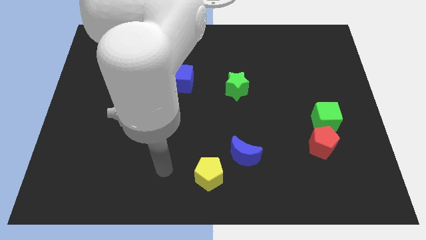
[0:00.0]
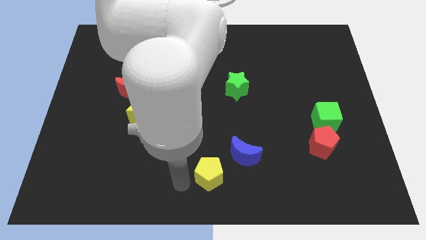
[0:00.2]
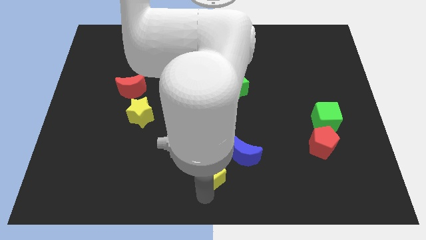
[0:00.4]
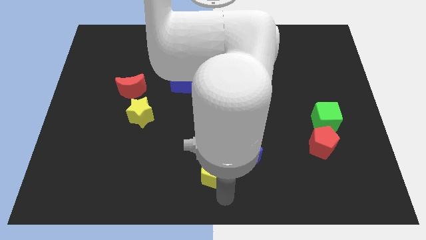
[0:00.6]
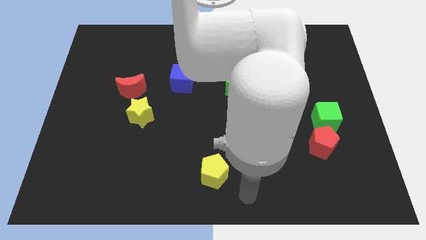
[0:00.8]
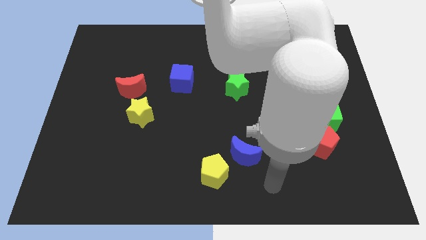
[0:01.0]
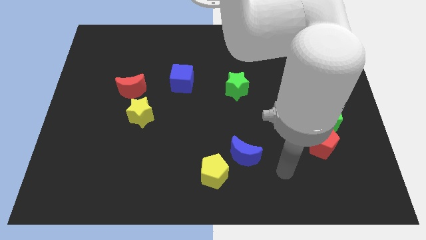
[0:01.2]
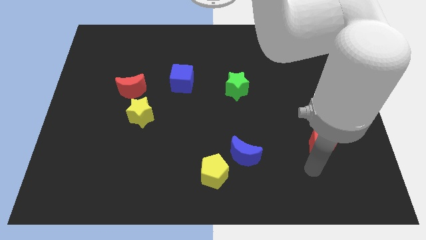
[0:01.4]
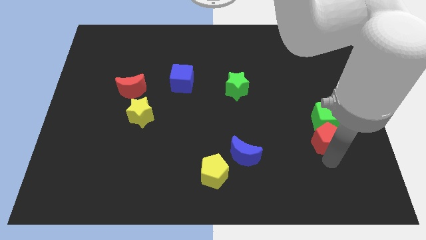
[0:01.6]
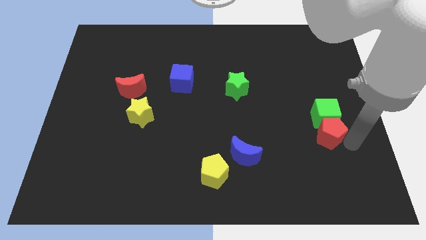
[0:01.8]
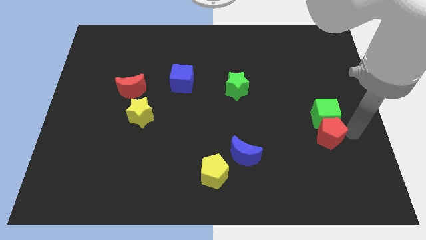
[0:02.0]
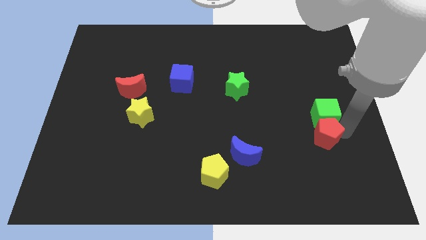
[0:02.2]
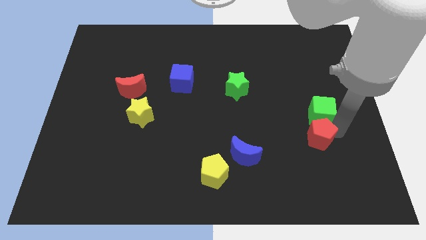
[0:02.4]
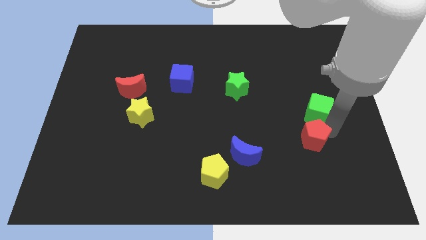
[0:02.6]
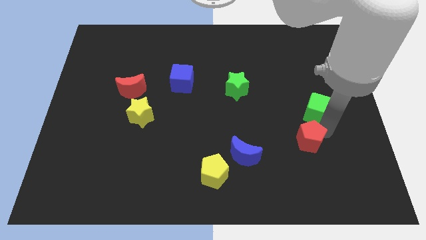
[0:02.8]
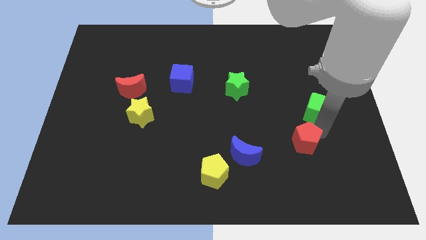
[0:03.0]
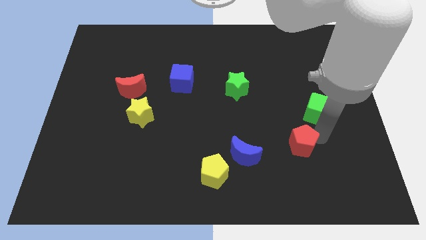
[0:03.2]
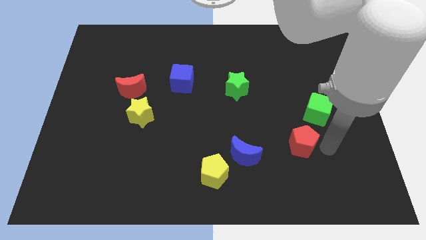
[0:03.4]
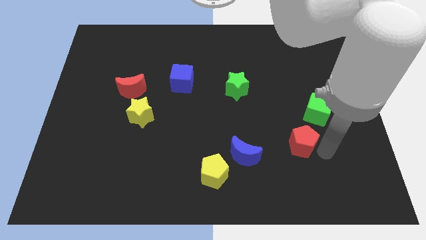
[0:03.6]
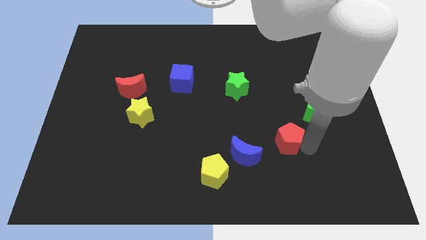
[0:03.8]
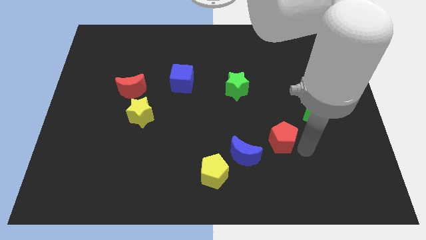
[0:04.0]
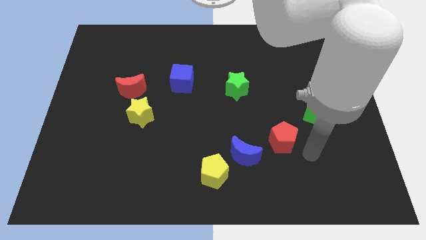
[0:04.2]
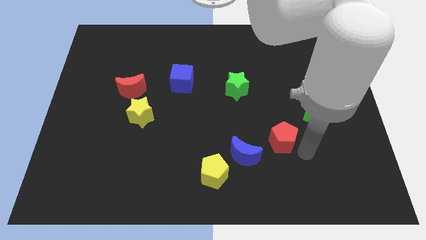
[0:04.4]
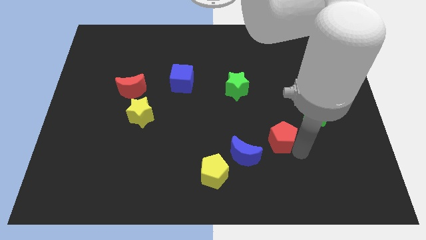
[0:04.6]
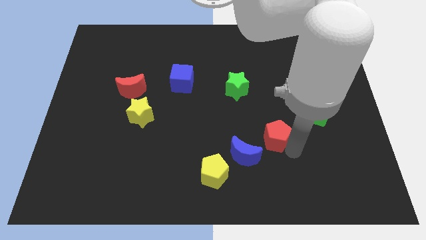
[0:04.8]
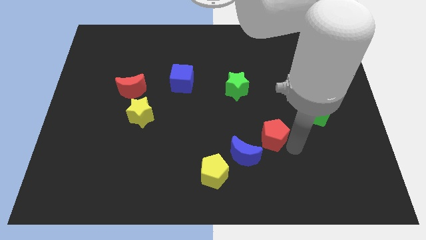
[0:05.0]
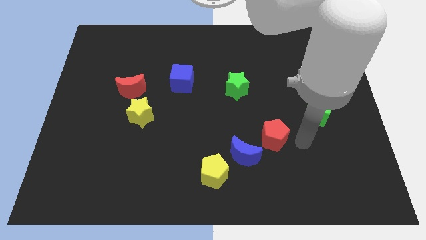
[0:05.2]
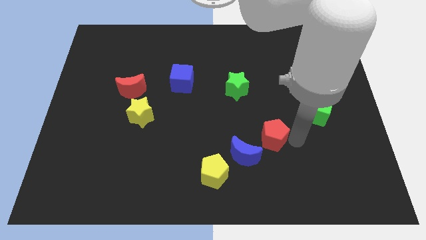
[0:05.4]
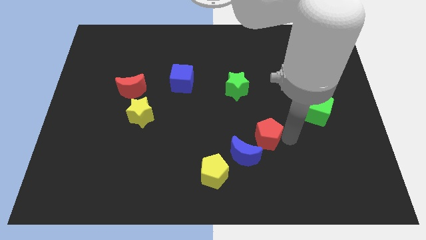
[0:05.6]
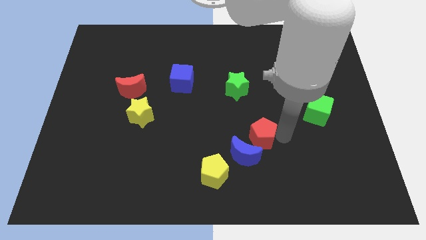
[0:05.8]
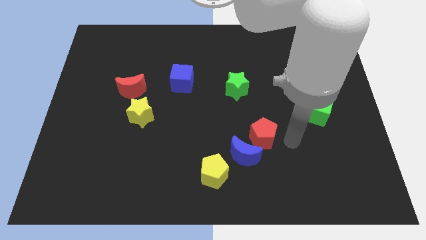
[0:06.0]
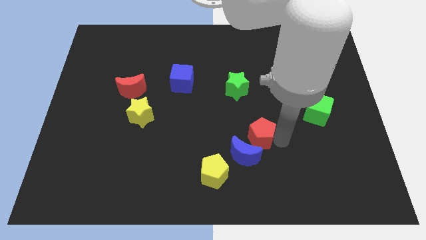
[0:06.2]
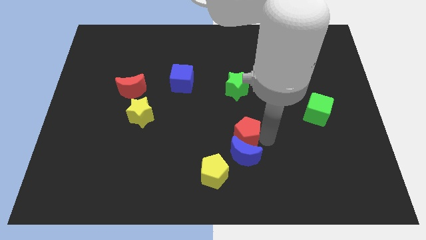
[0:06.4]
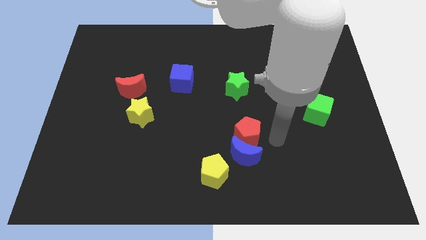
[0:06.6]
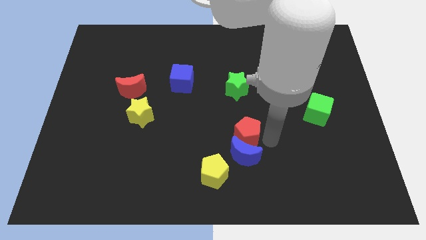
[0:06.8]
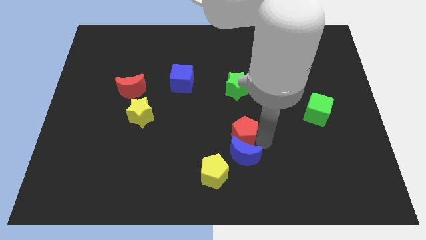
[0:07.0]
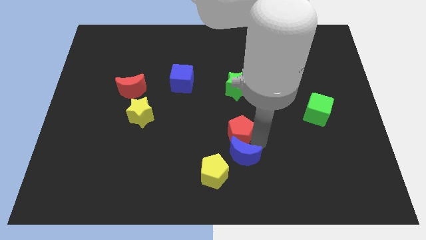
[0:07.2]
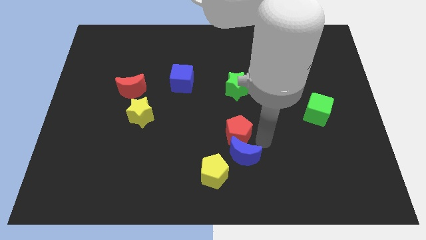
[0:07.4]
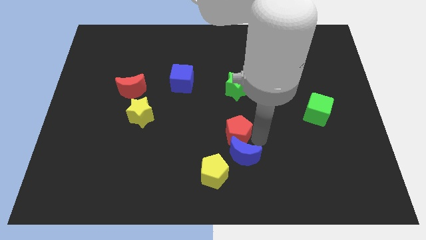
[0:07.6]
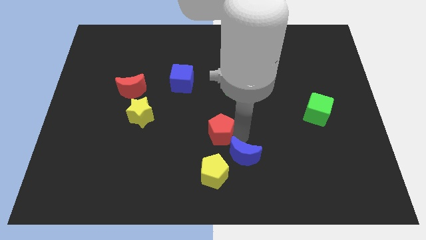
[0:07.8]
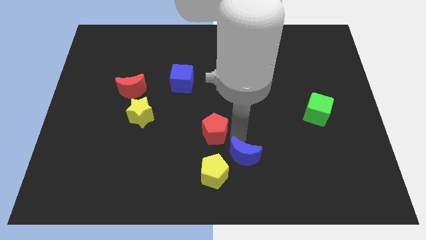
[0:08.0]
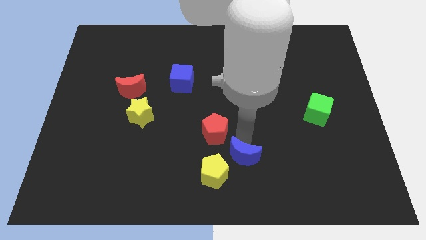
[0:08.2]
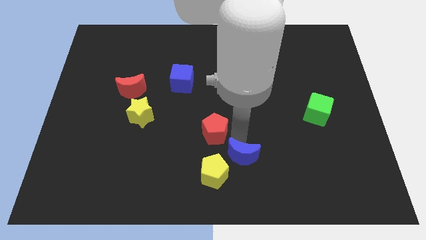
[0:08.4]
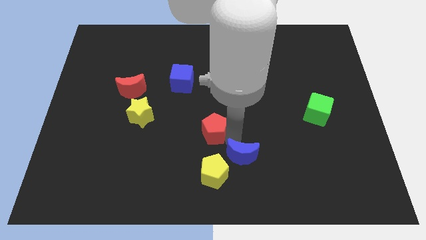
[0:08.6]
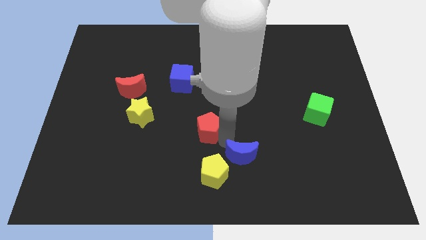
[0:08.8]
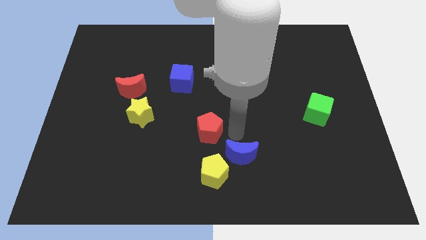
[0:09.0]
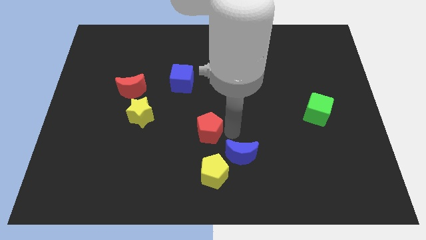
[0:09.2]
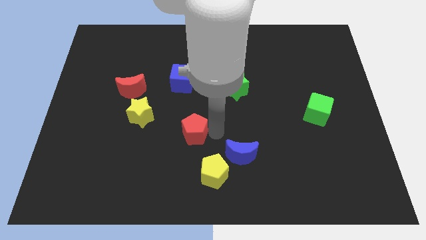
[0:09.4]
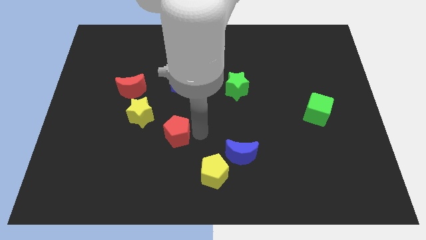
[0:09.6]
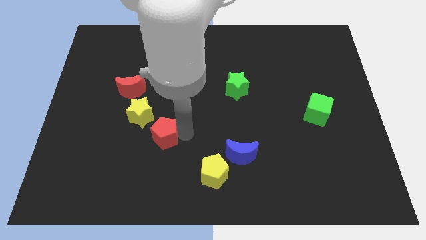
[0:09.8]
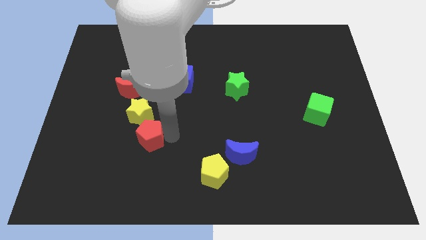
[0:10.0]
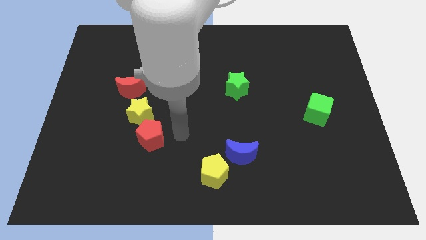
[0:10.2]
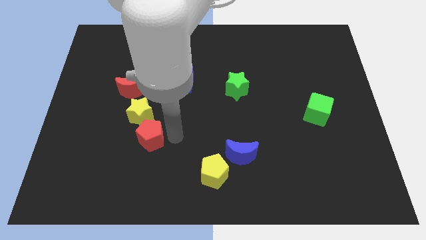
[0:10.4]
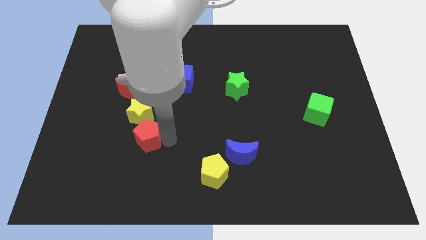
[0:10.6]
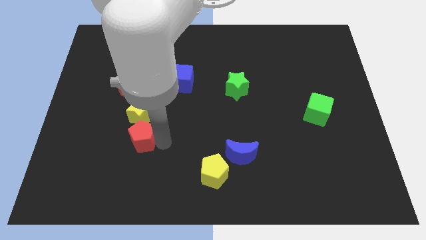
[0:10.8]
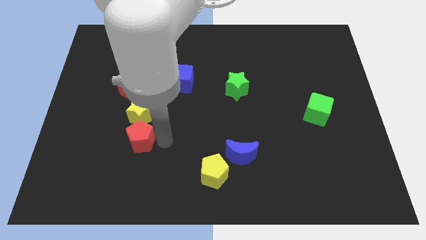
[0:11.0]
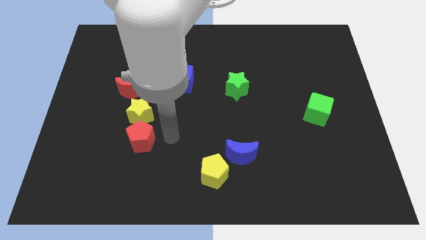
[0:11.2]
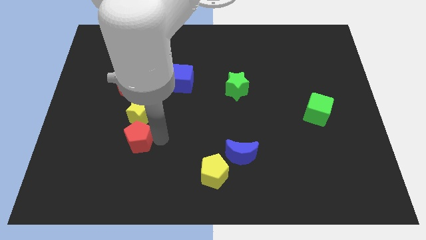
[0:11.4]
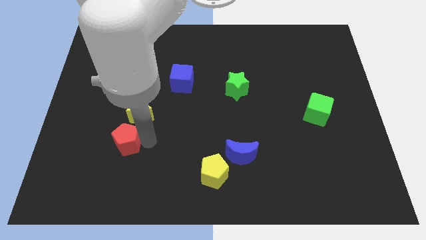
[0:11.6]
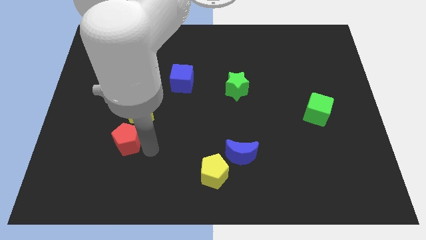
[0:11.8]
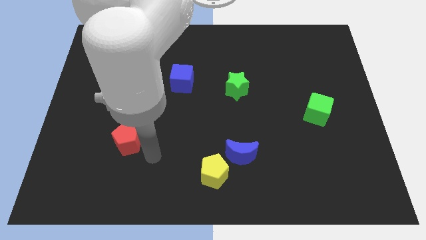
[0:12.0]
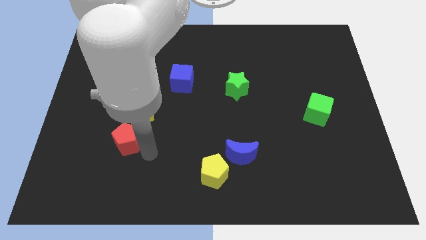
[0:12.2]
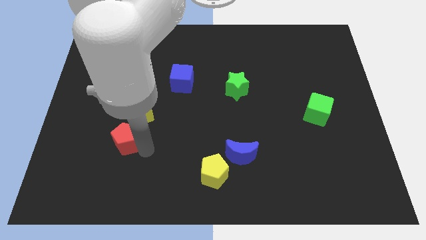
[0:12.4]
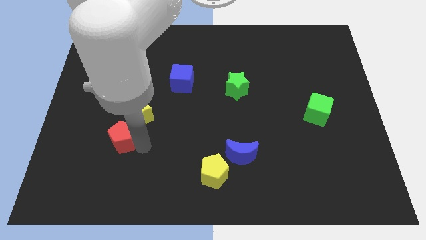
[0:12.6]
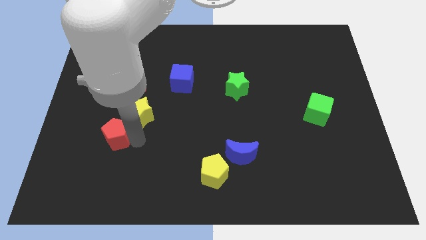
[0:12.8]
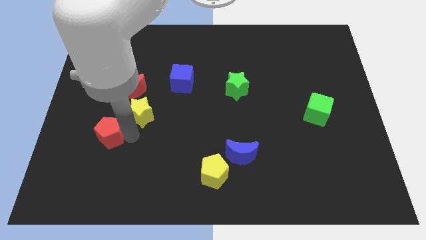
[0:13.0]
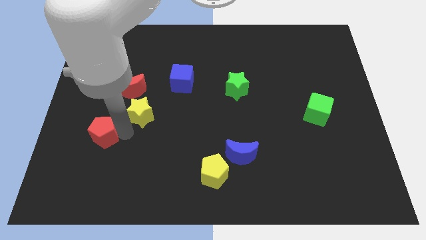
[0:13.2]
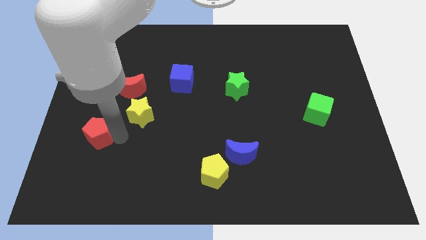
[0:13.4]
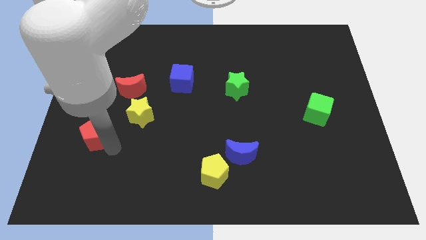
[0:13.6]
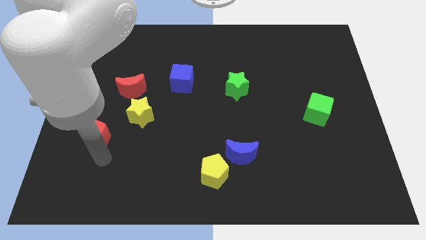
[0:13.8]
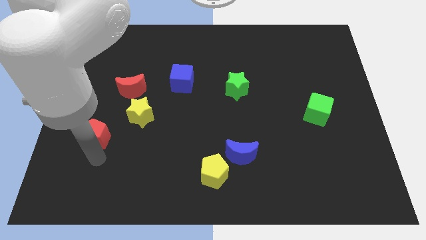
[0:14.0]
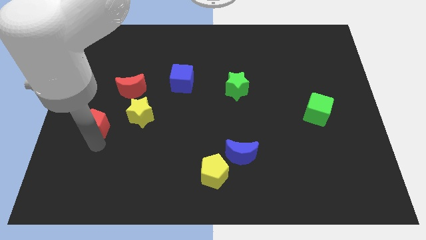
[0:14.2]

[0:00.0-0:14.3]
push the red pentagon just left of the yellow star

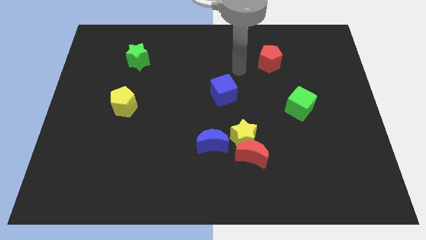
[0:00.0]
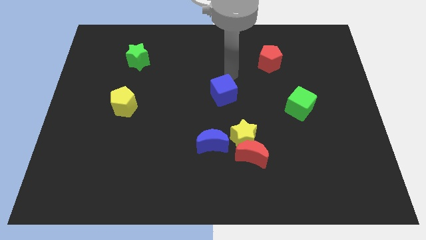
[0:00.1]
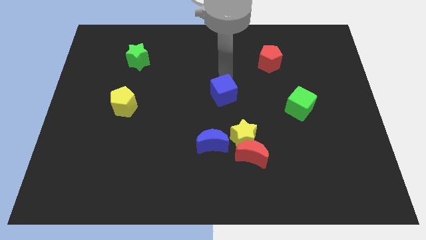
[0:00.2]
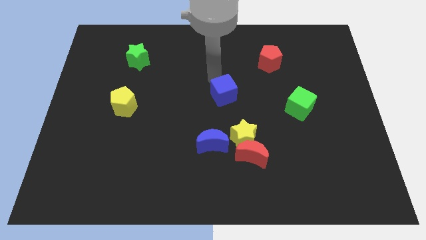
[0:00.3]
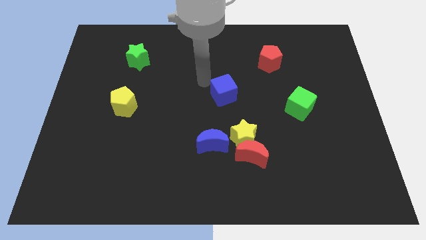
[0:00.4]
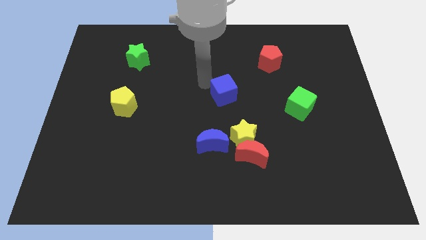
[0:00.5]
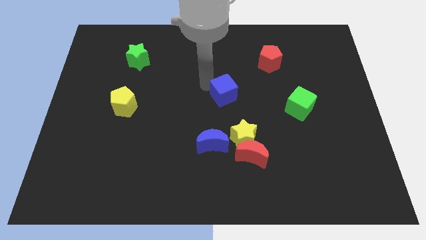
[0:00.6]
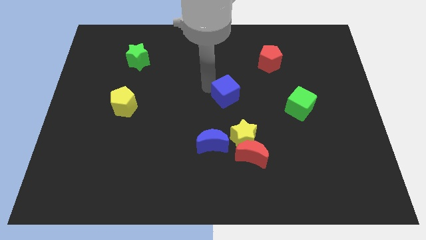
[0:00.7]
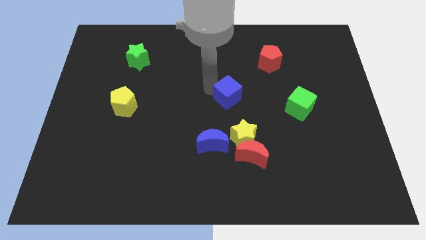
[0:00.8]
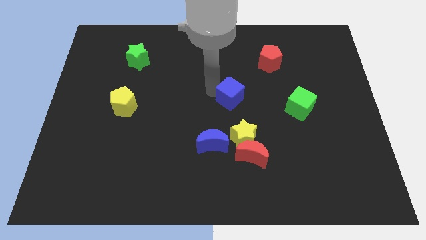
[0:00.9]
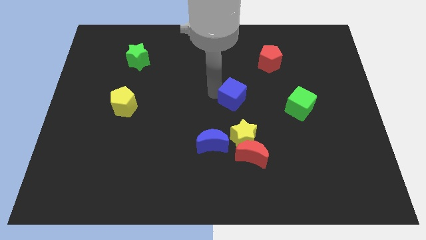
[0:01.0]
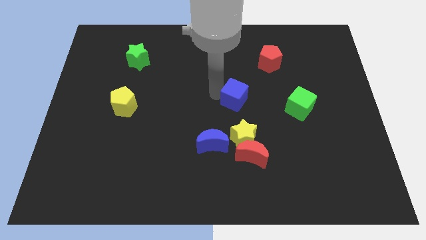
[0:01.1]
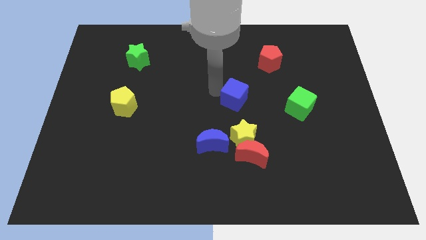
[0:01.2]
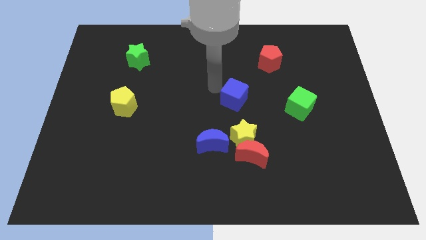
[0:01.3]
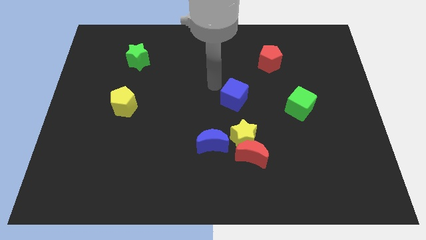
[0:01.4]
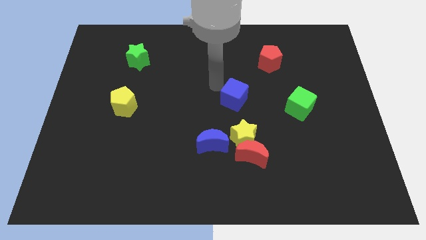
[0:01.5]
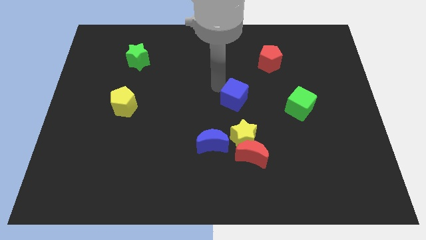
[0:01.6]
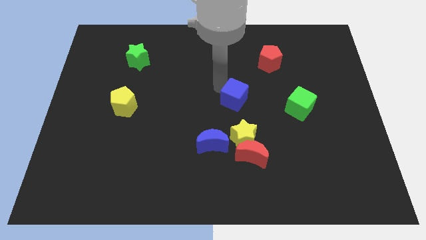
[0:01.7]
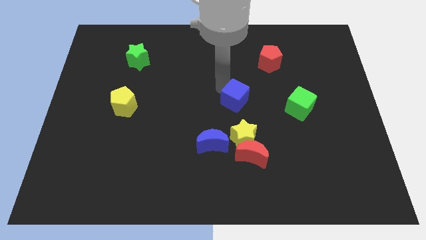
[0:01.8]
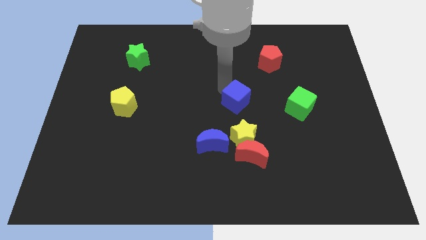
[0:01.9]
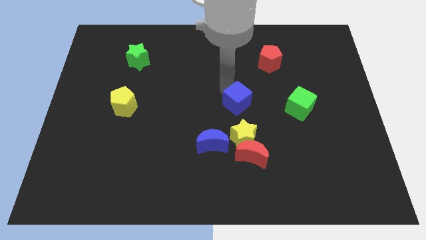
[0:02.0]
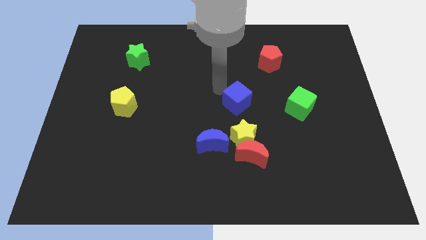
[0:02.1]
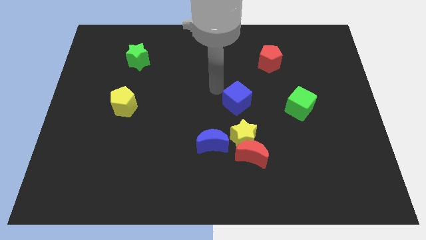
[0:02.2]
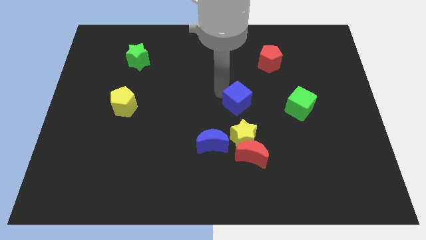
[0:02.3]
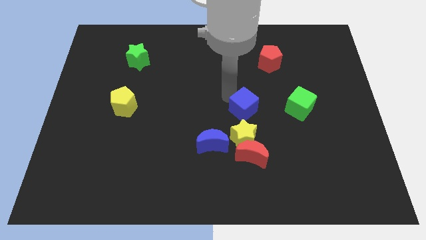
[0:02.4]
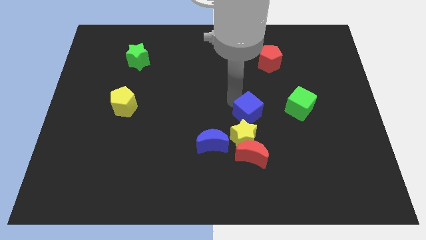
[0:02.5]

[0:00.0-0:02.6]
move the blue cube to the top right of the yellow star
